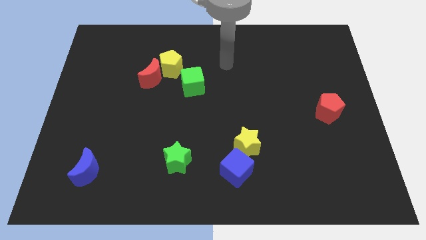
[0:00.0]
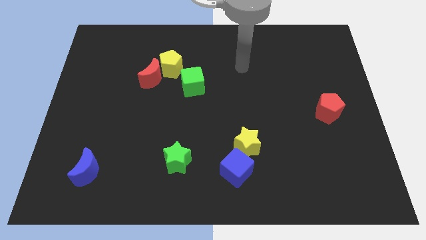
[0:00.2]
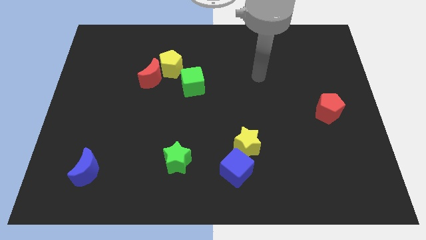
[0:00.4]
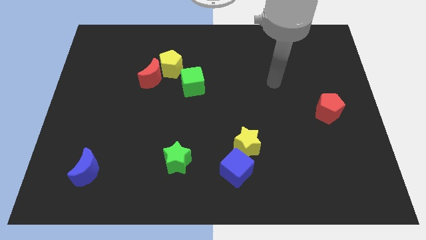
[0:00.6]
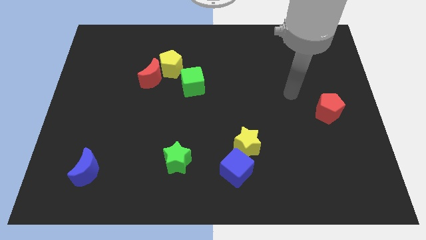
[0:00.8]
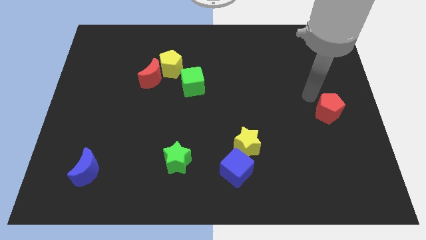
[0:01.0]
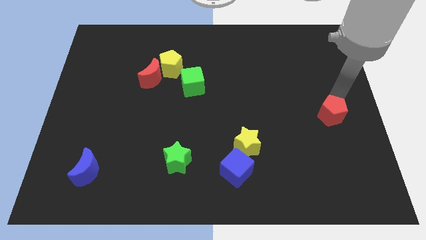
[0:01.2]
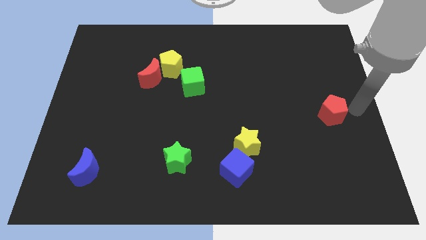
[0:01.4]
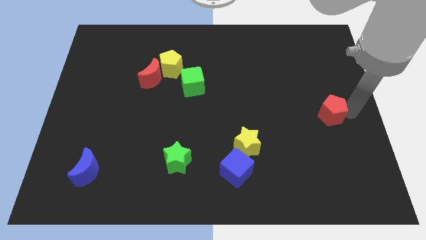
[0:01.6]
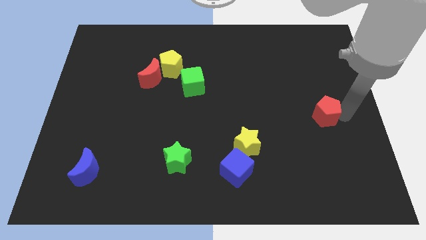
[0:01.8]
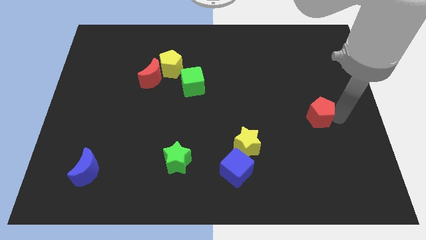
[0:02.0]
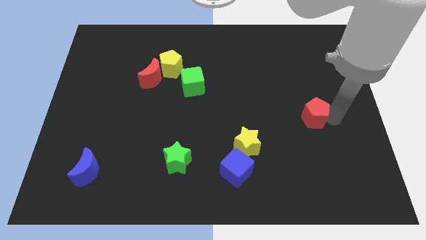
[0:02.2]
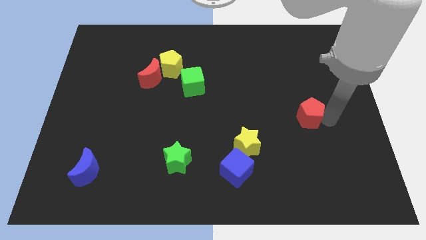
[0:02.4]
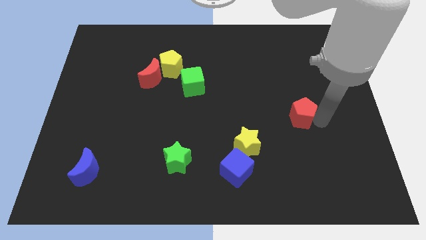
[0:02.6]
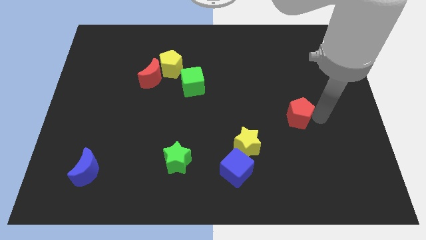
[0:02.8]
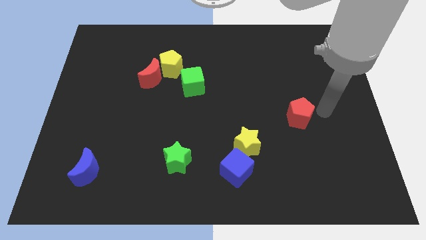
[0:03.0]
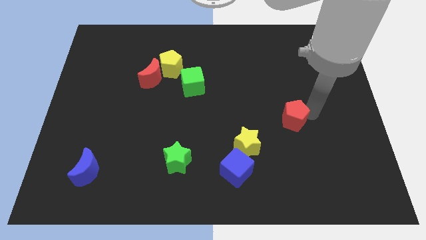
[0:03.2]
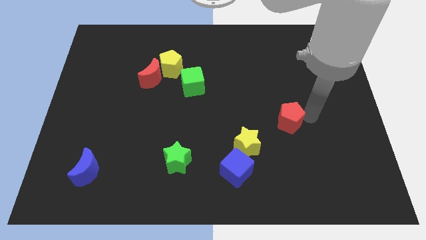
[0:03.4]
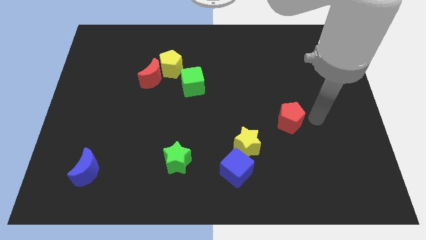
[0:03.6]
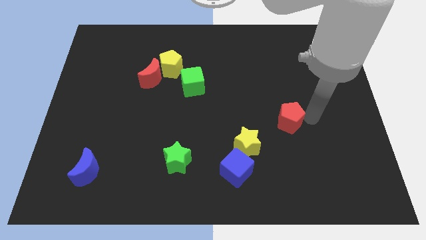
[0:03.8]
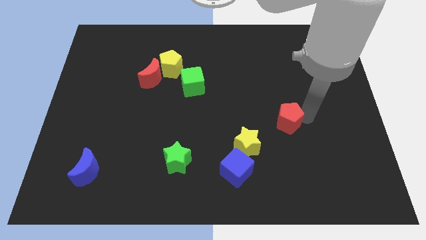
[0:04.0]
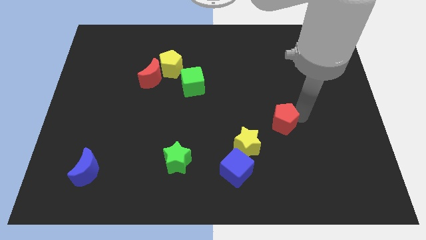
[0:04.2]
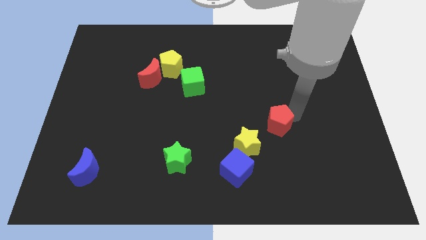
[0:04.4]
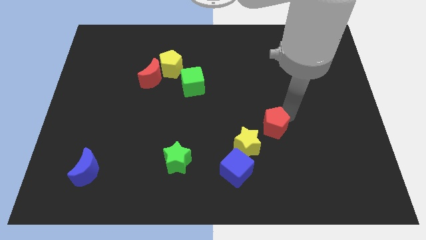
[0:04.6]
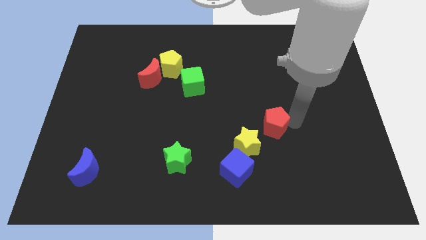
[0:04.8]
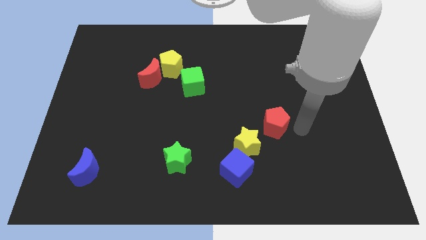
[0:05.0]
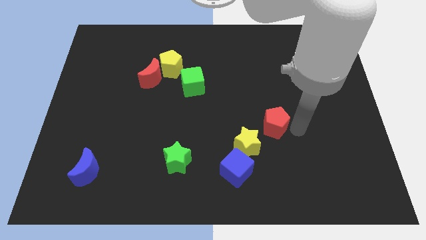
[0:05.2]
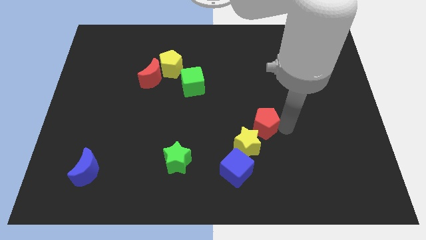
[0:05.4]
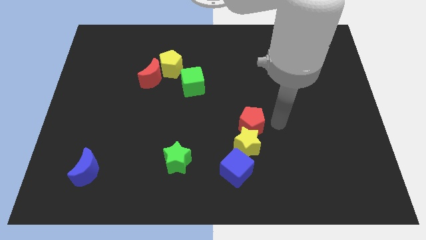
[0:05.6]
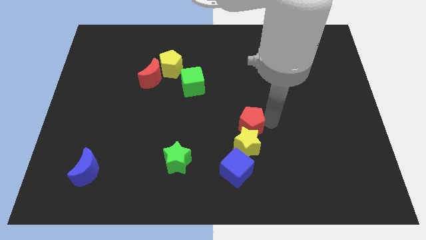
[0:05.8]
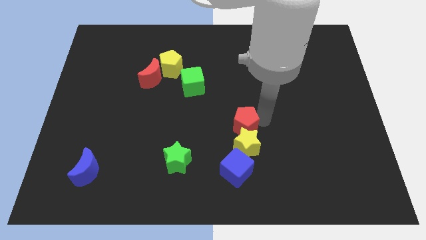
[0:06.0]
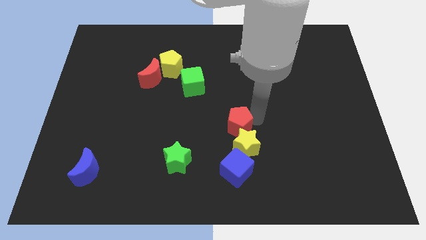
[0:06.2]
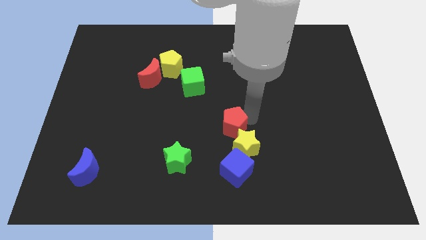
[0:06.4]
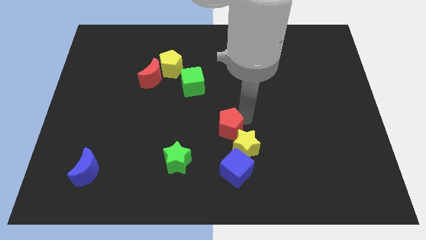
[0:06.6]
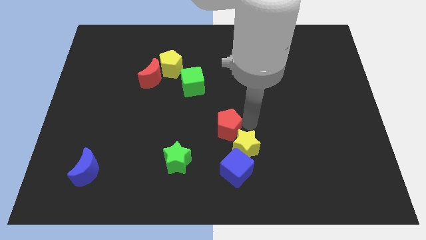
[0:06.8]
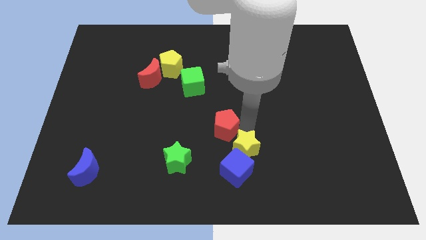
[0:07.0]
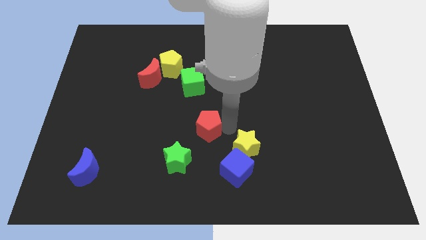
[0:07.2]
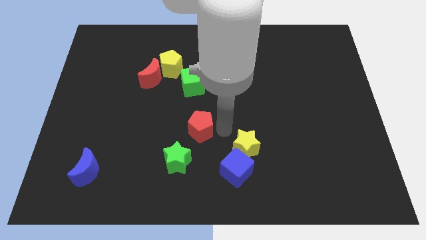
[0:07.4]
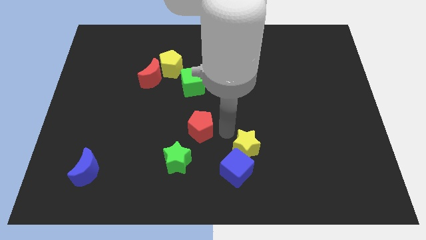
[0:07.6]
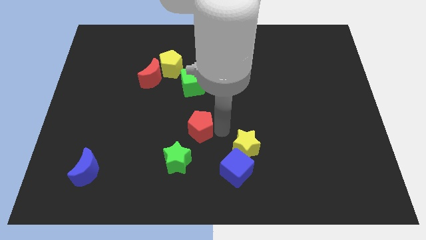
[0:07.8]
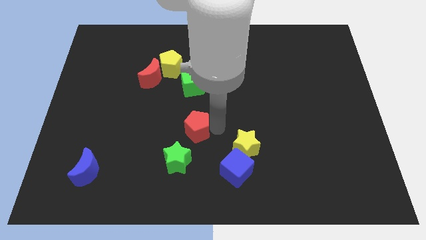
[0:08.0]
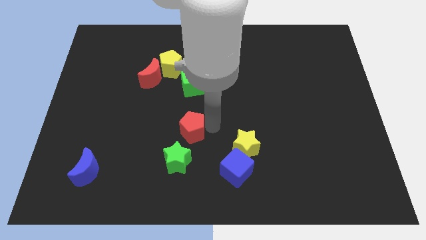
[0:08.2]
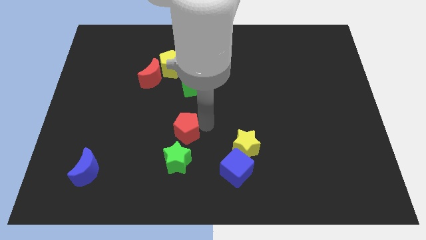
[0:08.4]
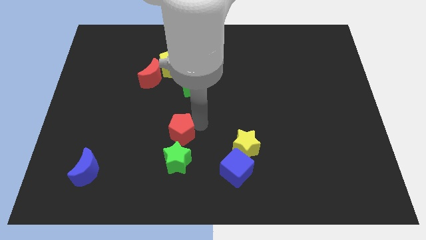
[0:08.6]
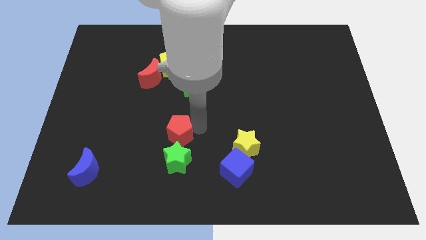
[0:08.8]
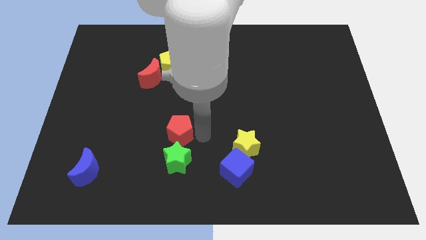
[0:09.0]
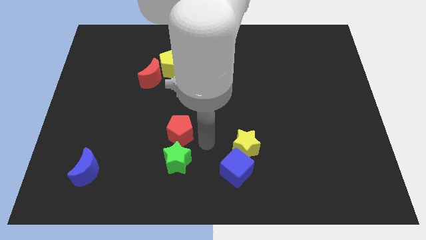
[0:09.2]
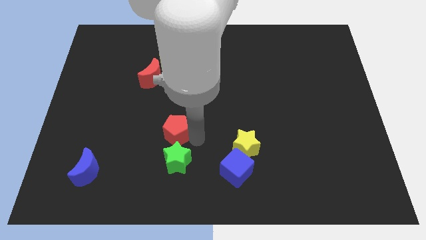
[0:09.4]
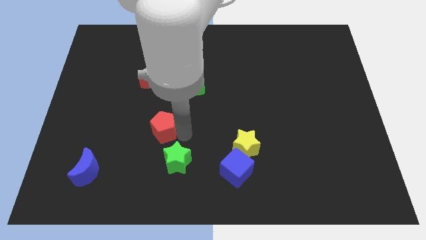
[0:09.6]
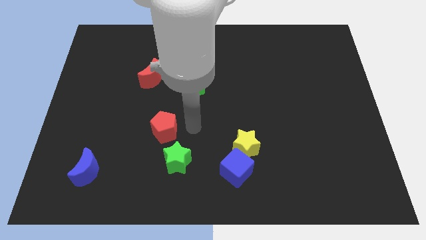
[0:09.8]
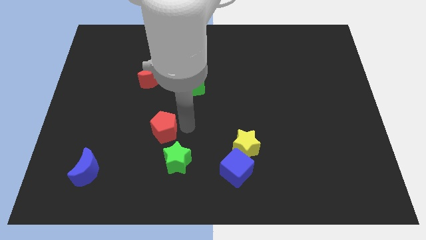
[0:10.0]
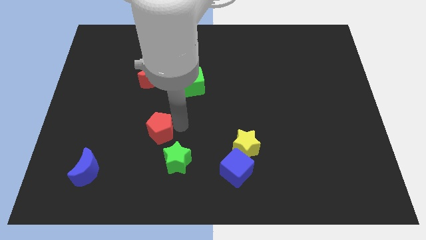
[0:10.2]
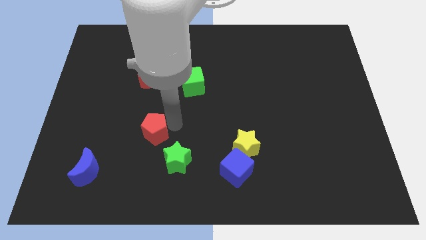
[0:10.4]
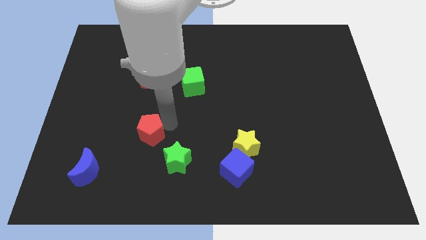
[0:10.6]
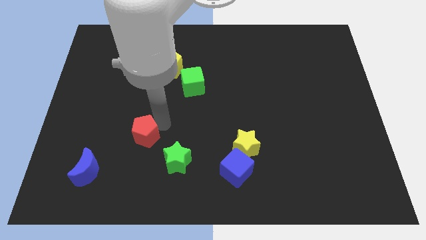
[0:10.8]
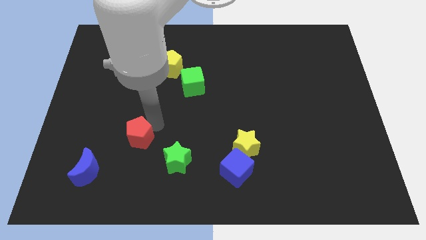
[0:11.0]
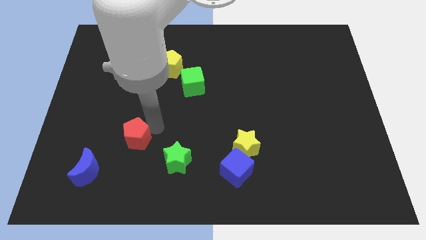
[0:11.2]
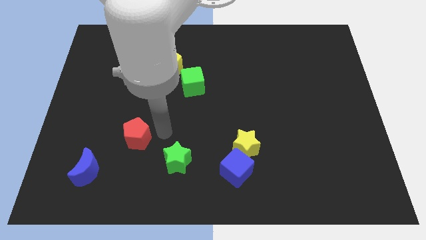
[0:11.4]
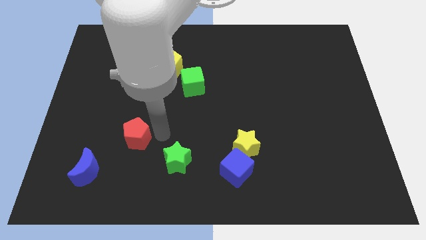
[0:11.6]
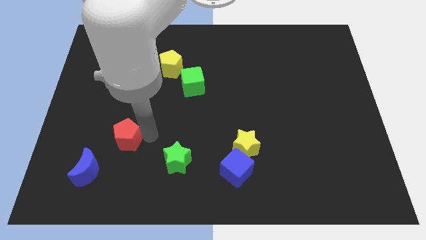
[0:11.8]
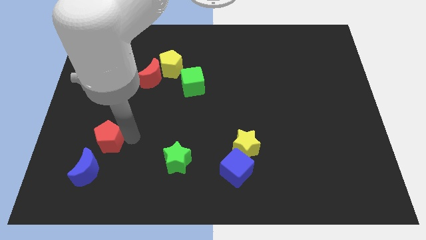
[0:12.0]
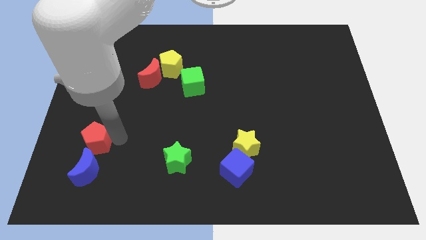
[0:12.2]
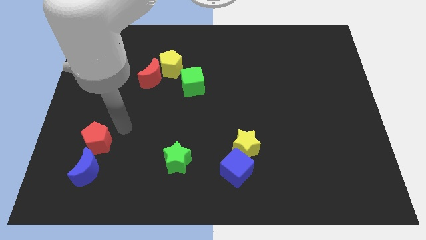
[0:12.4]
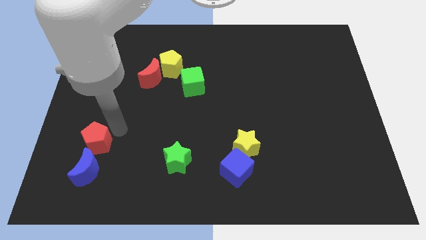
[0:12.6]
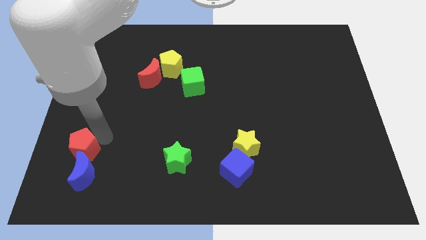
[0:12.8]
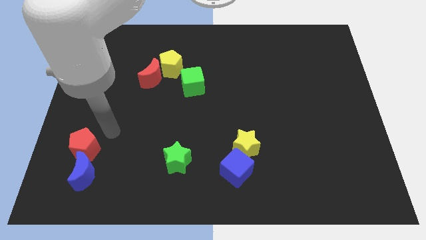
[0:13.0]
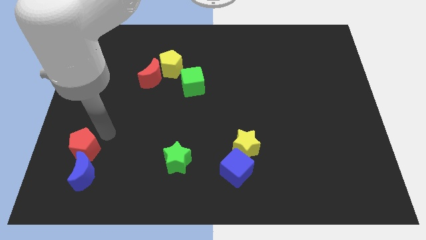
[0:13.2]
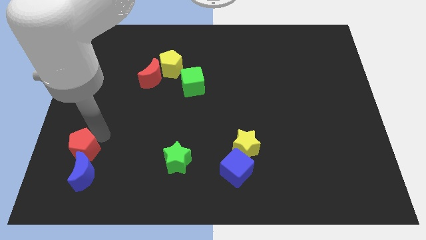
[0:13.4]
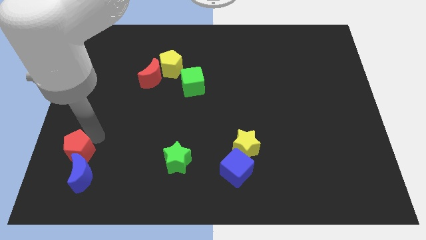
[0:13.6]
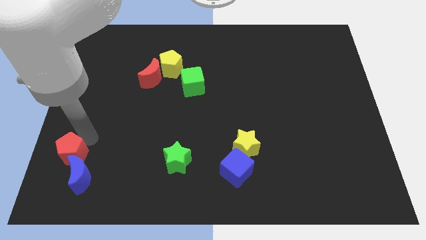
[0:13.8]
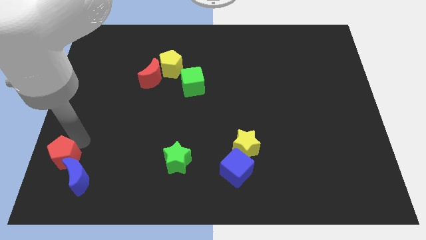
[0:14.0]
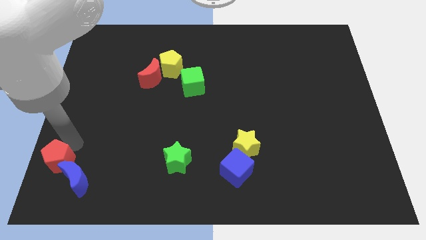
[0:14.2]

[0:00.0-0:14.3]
move the red pentagon to the bottom left of the board

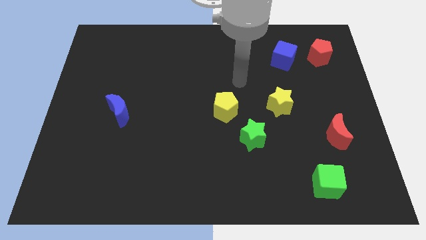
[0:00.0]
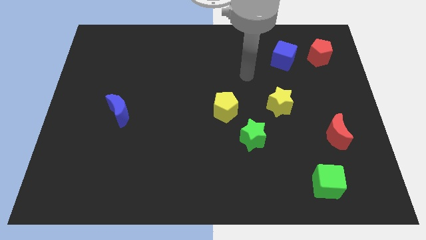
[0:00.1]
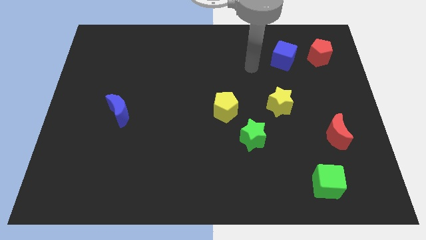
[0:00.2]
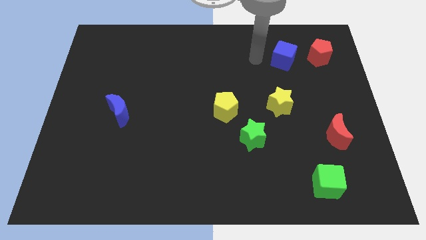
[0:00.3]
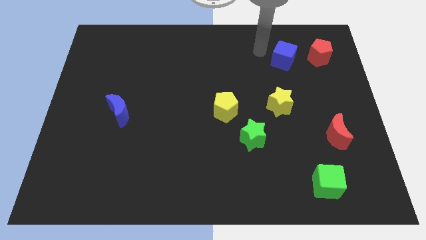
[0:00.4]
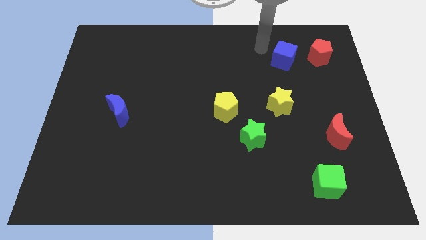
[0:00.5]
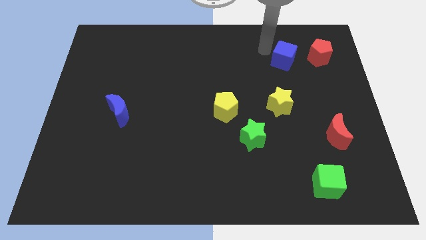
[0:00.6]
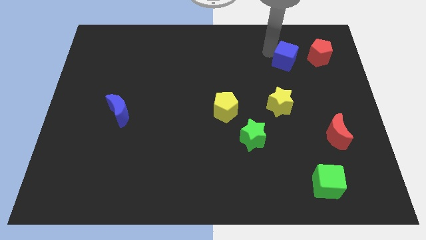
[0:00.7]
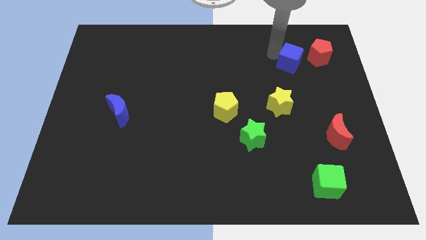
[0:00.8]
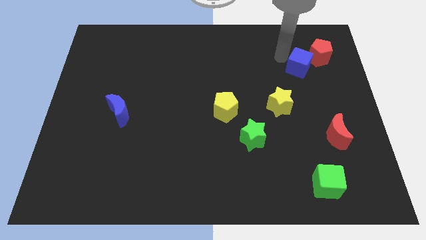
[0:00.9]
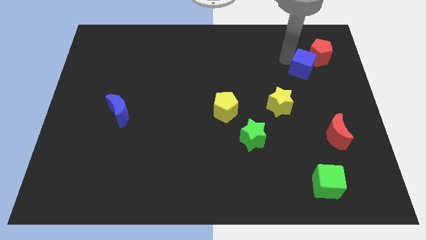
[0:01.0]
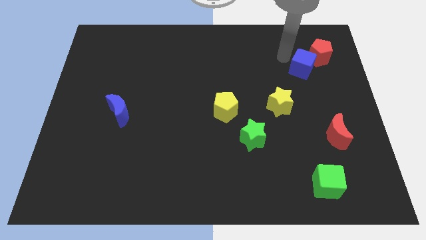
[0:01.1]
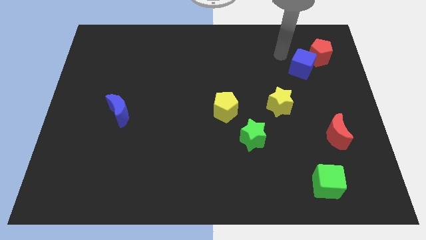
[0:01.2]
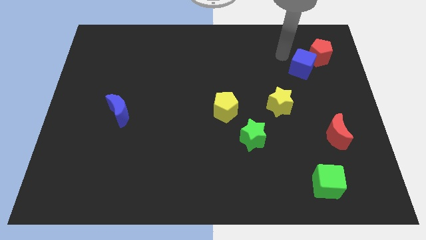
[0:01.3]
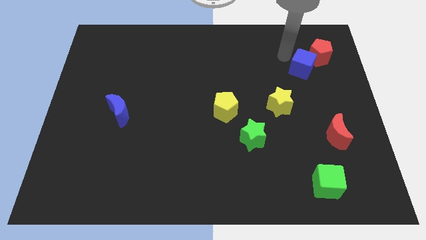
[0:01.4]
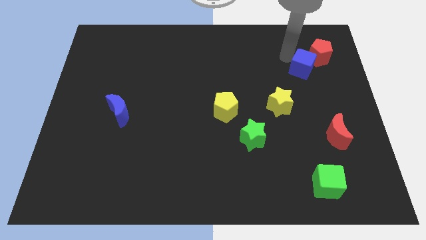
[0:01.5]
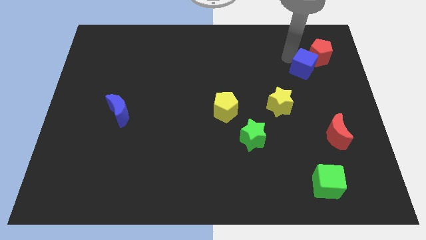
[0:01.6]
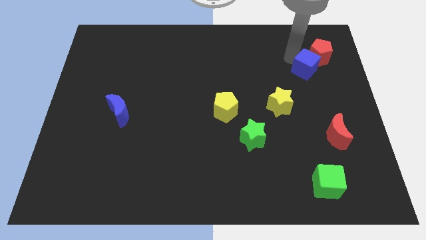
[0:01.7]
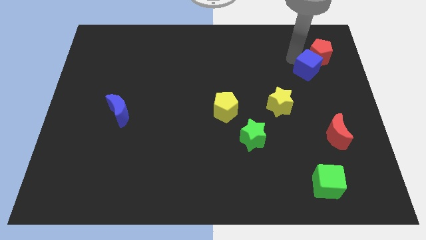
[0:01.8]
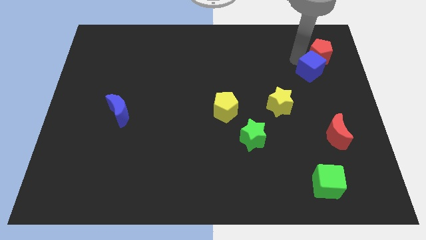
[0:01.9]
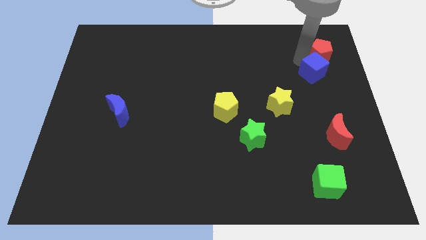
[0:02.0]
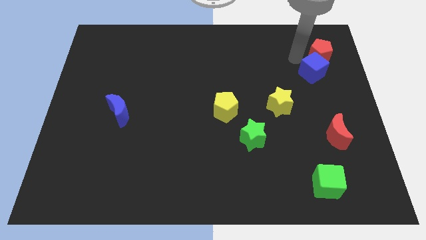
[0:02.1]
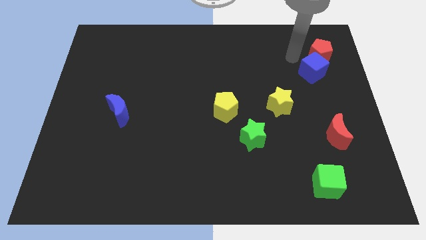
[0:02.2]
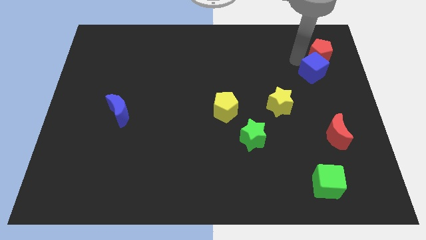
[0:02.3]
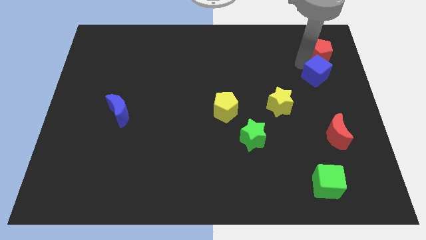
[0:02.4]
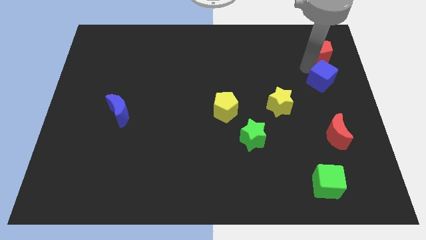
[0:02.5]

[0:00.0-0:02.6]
slide the blue cube to the right side of the board
